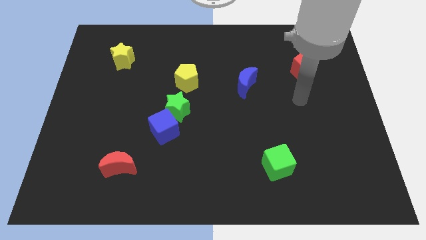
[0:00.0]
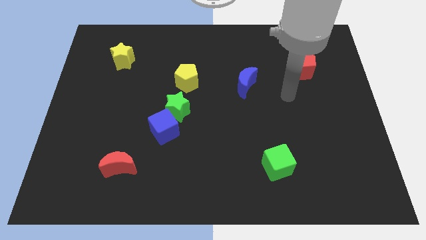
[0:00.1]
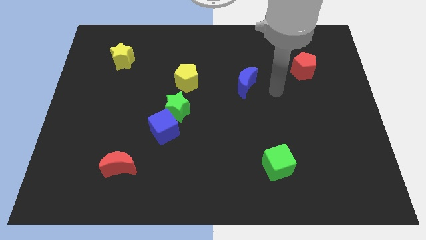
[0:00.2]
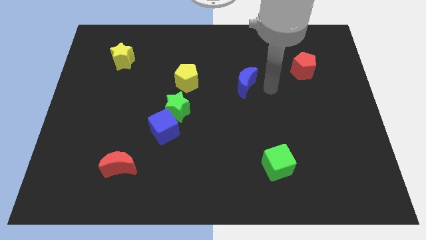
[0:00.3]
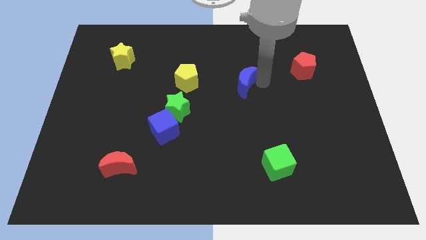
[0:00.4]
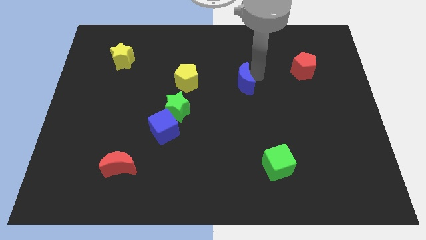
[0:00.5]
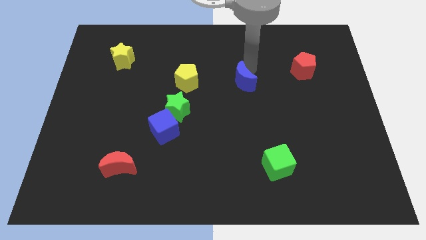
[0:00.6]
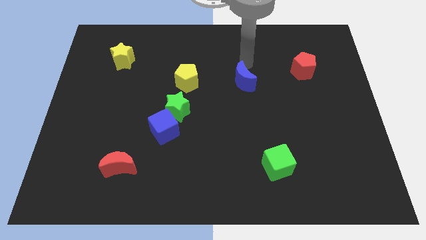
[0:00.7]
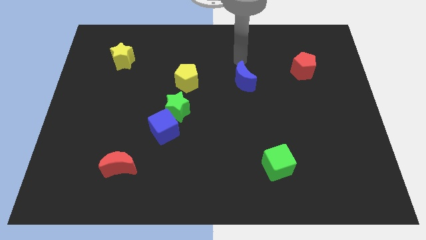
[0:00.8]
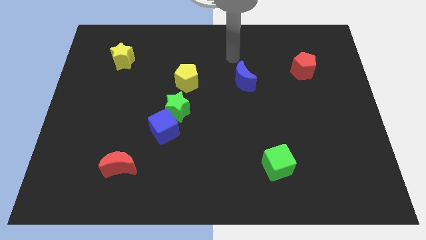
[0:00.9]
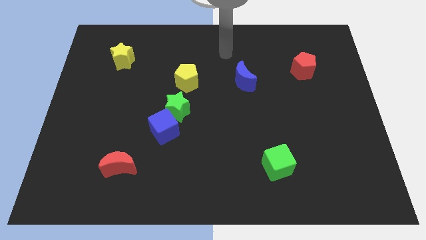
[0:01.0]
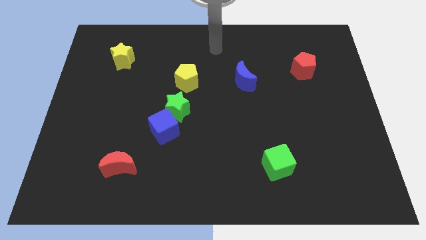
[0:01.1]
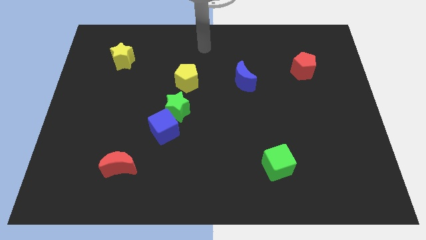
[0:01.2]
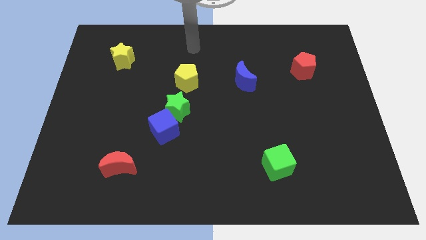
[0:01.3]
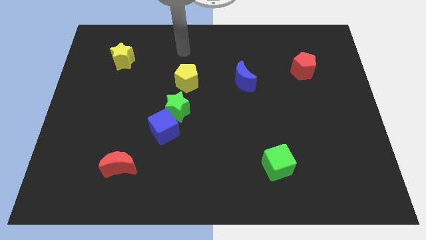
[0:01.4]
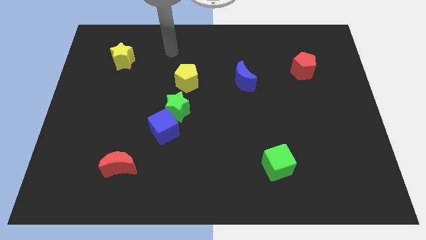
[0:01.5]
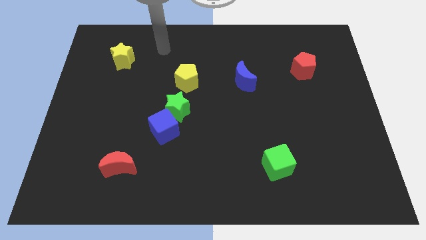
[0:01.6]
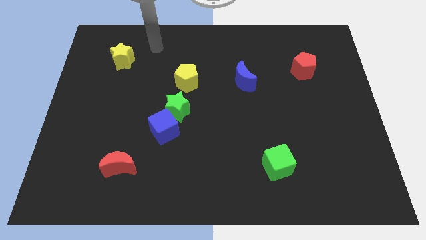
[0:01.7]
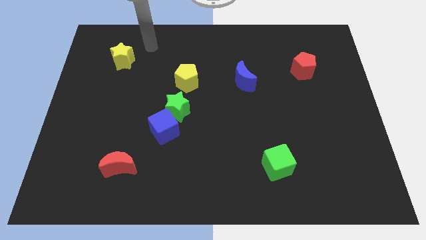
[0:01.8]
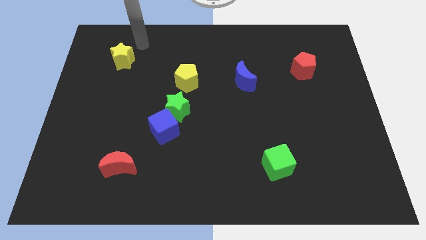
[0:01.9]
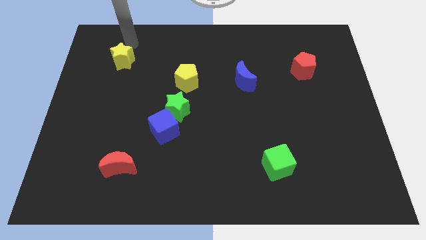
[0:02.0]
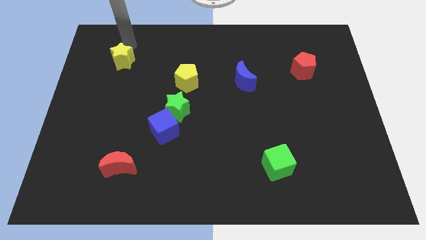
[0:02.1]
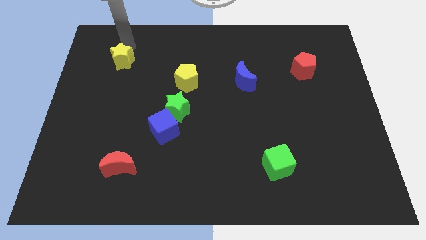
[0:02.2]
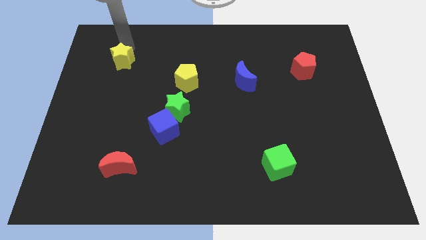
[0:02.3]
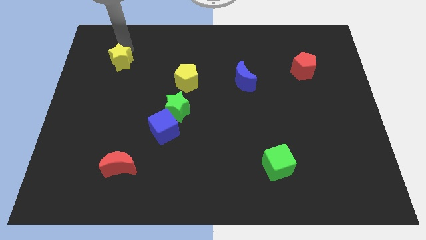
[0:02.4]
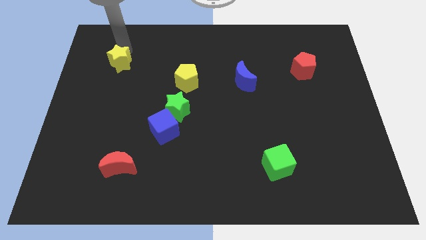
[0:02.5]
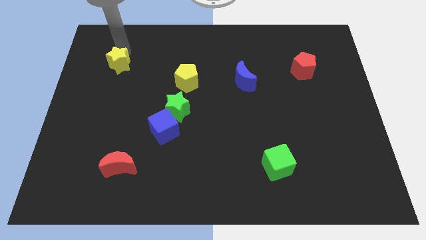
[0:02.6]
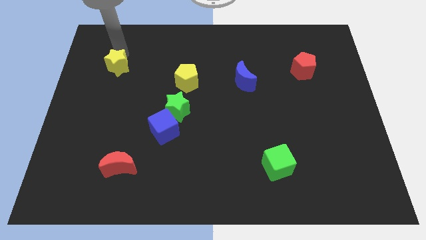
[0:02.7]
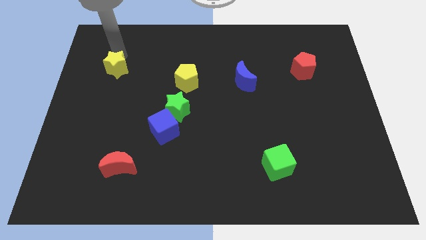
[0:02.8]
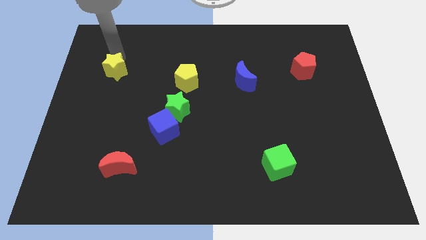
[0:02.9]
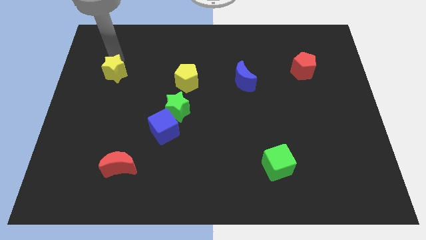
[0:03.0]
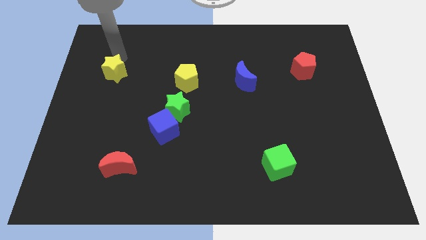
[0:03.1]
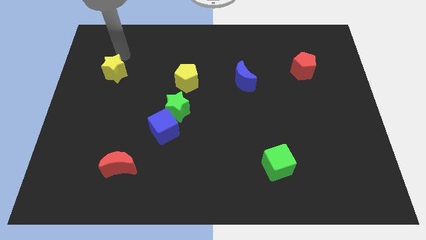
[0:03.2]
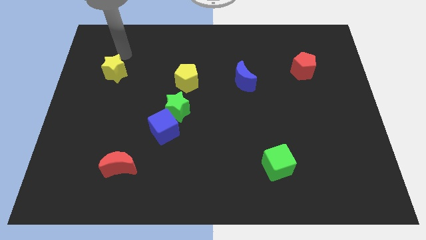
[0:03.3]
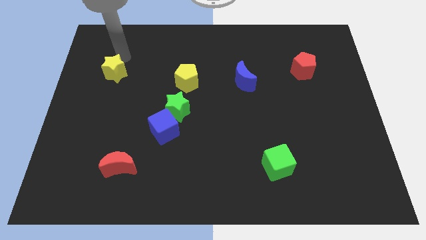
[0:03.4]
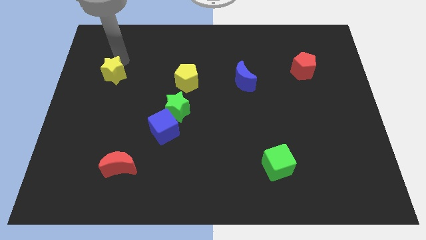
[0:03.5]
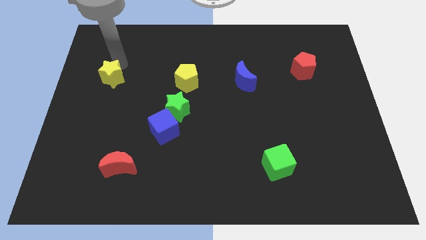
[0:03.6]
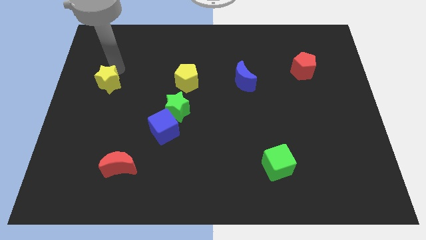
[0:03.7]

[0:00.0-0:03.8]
slightly slide the yellow star downwards

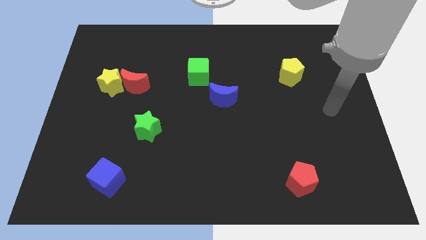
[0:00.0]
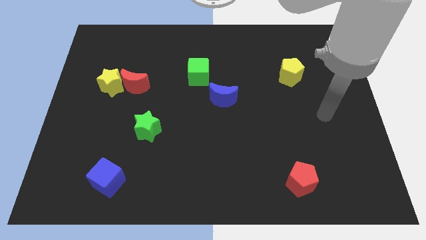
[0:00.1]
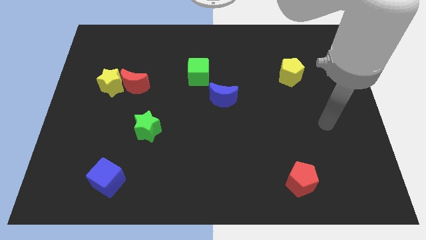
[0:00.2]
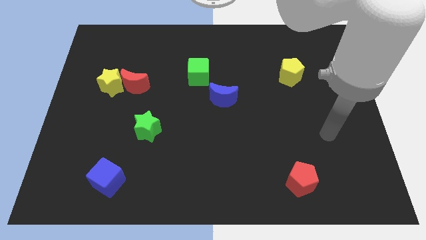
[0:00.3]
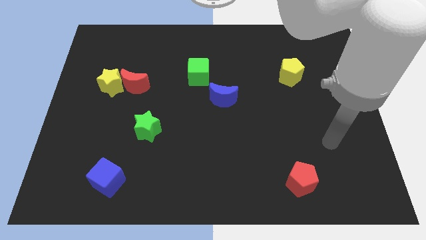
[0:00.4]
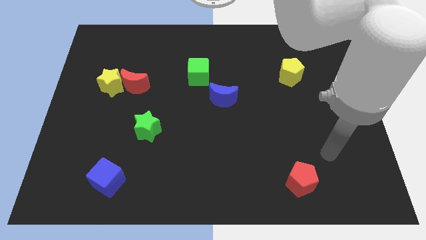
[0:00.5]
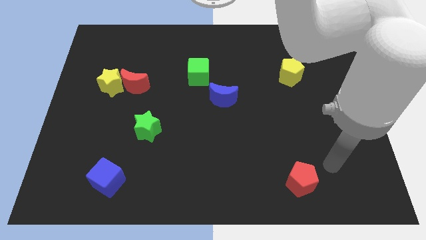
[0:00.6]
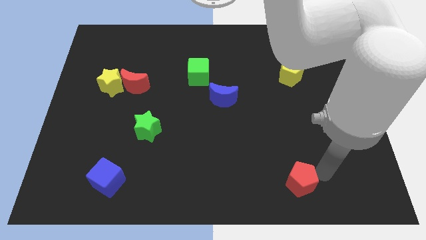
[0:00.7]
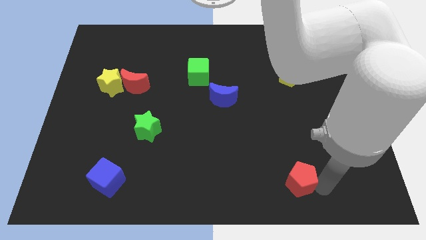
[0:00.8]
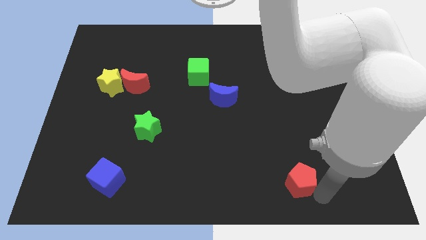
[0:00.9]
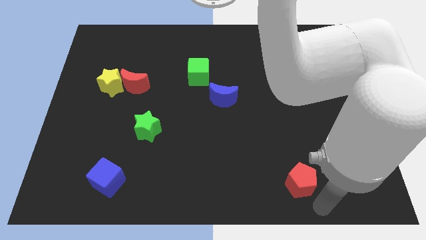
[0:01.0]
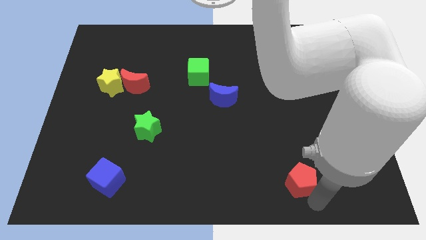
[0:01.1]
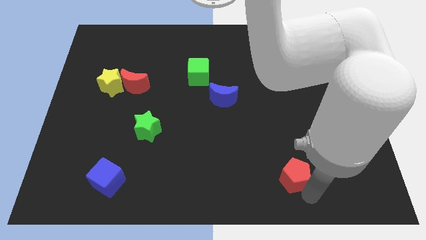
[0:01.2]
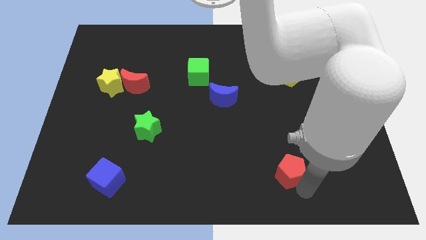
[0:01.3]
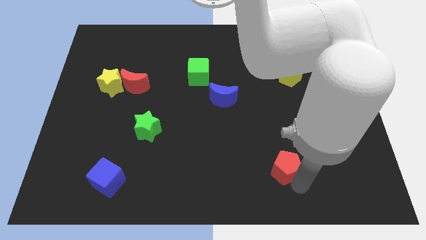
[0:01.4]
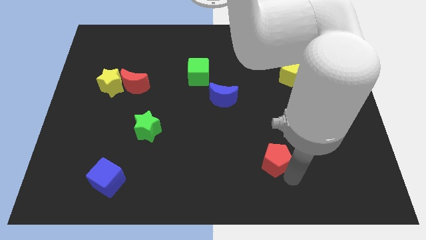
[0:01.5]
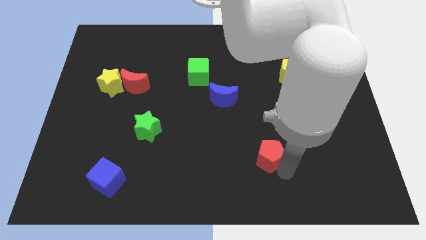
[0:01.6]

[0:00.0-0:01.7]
push the red pentagon upwards and then left a little bit

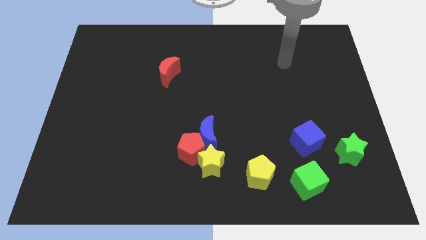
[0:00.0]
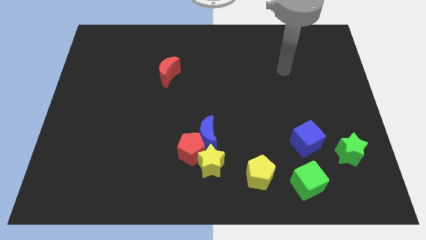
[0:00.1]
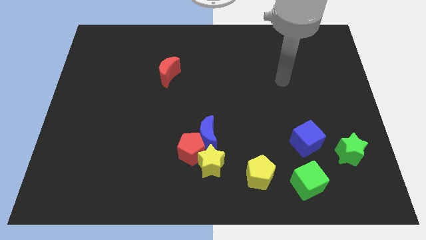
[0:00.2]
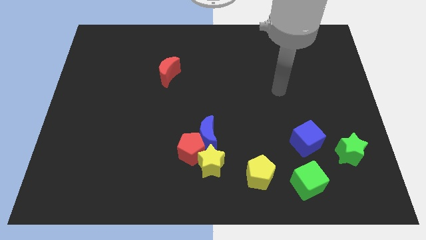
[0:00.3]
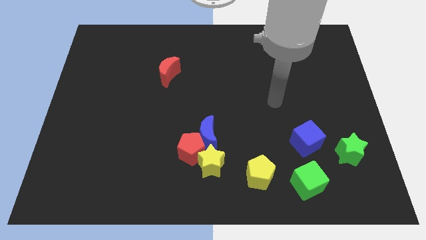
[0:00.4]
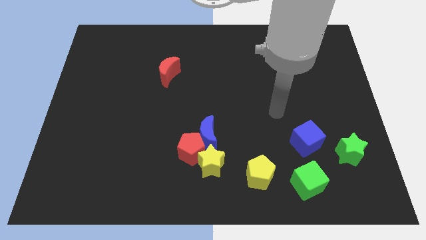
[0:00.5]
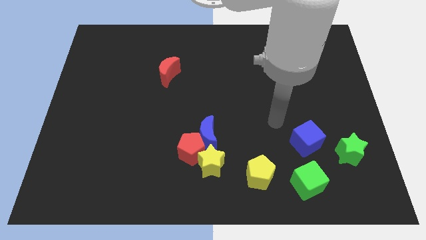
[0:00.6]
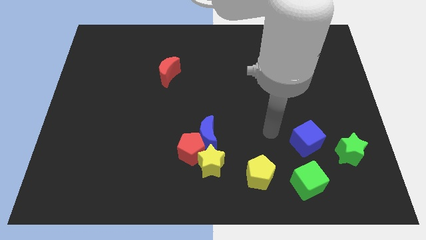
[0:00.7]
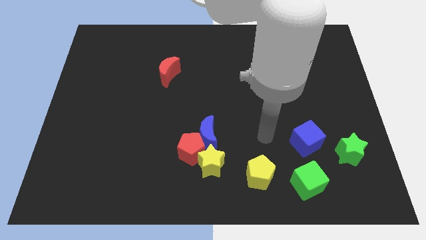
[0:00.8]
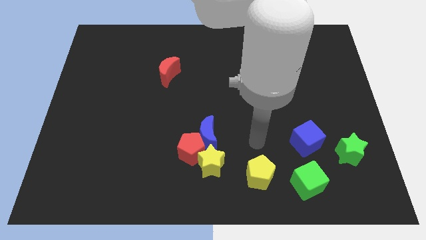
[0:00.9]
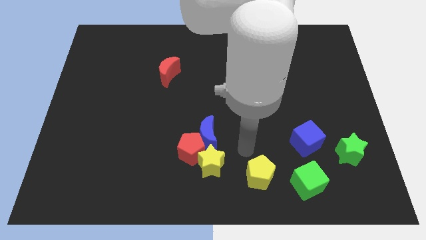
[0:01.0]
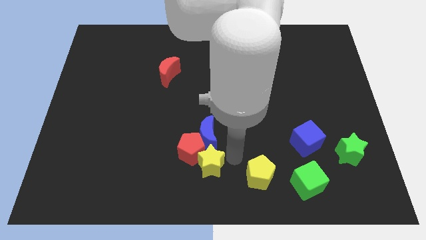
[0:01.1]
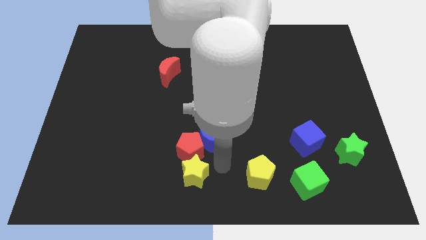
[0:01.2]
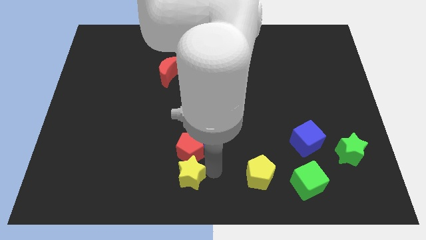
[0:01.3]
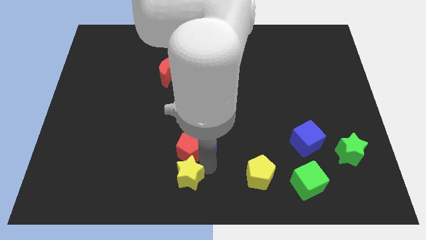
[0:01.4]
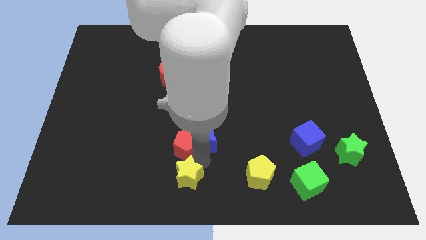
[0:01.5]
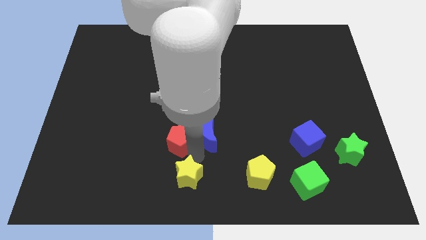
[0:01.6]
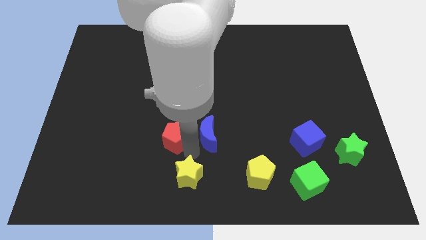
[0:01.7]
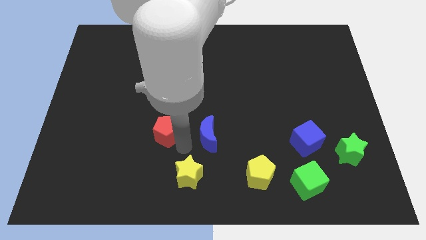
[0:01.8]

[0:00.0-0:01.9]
push the red pentagon slightly up and to the left

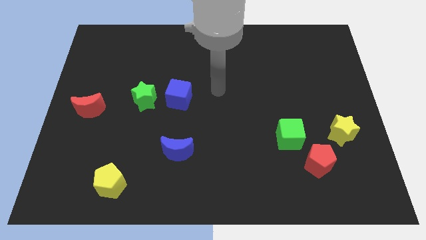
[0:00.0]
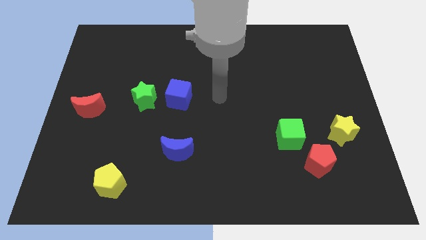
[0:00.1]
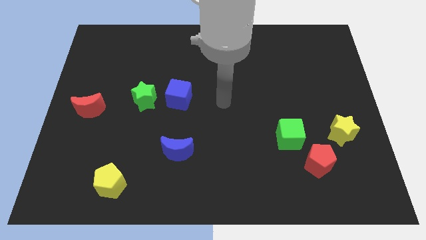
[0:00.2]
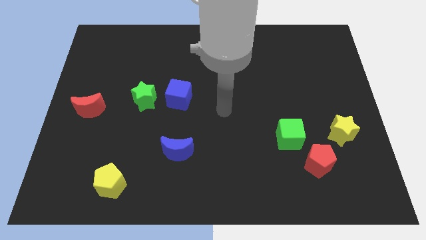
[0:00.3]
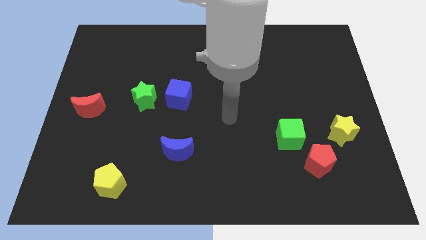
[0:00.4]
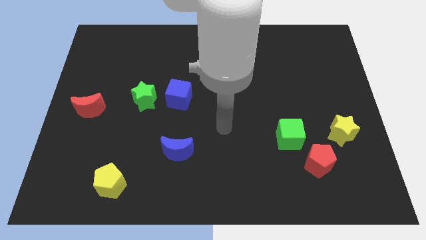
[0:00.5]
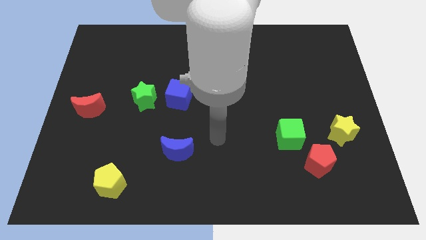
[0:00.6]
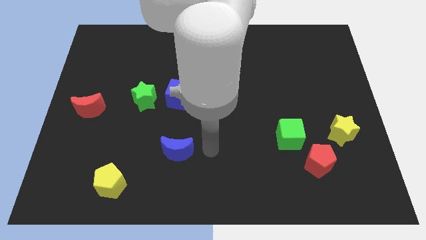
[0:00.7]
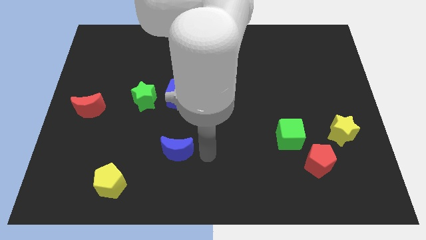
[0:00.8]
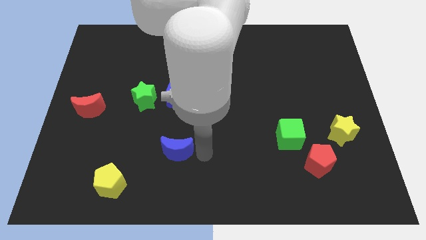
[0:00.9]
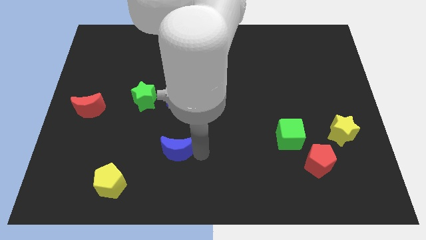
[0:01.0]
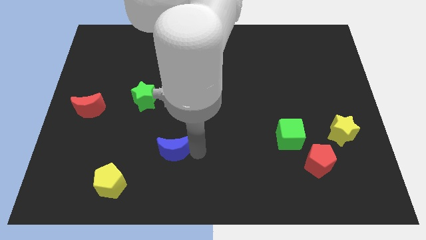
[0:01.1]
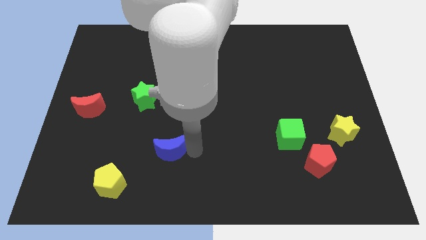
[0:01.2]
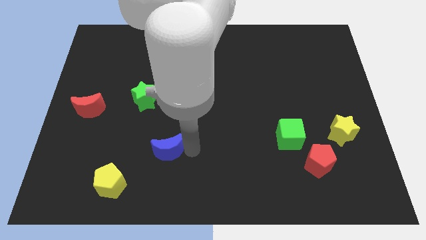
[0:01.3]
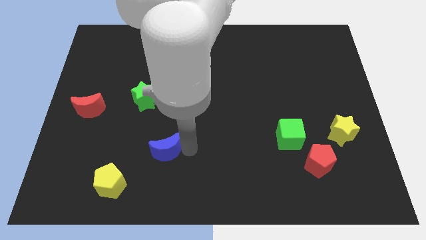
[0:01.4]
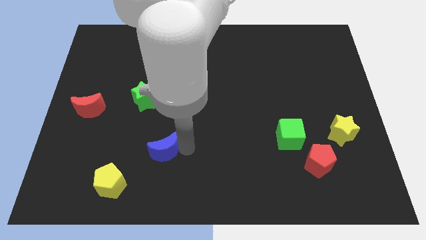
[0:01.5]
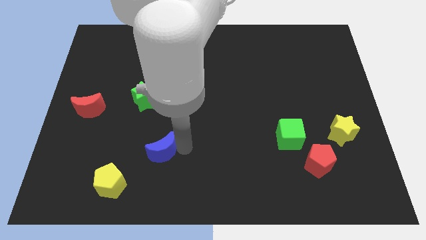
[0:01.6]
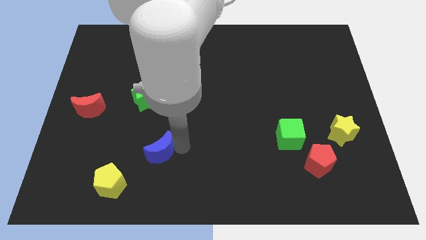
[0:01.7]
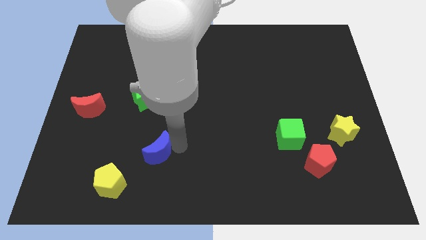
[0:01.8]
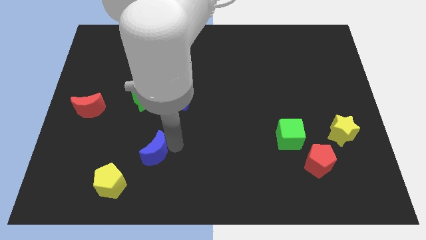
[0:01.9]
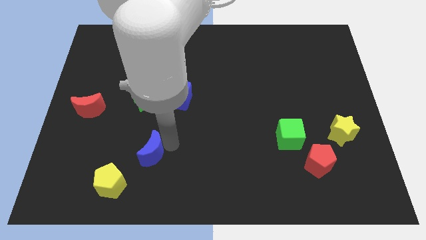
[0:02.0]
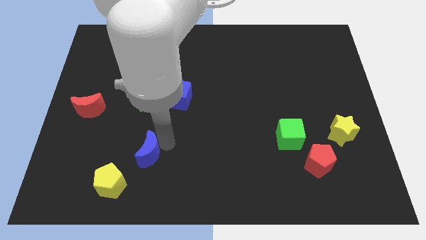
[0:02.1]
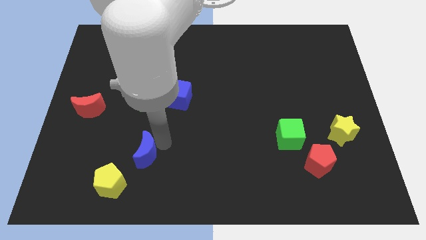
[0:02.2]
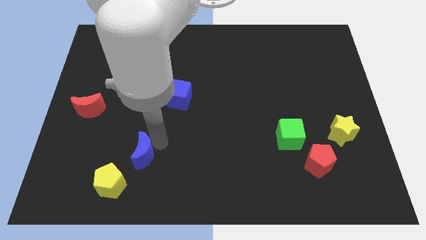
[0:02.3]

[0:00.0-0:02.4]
slightly move the blue moon to the left
